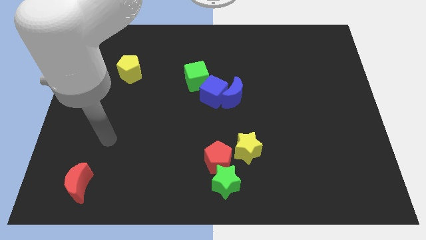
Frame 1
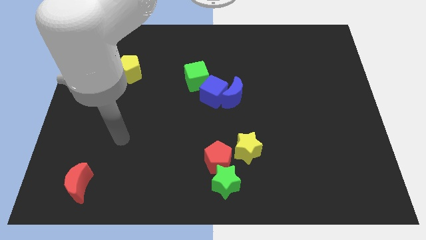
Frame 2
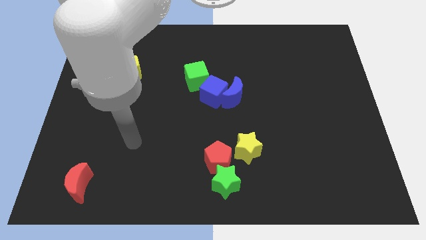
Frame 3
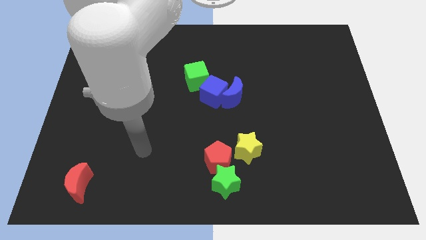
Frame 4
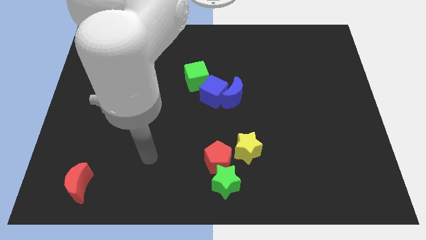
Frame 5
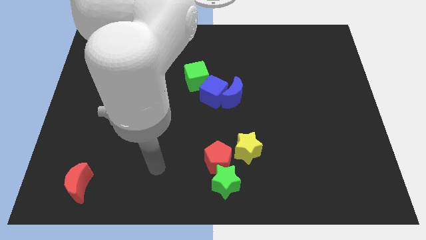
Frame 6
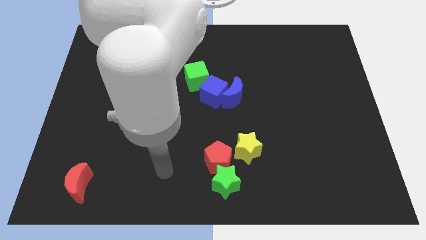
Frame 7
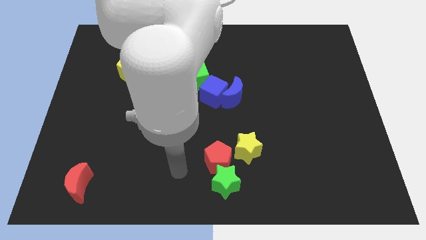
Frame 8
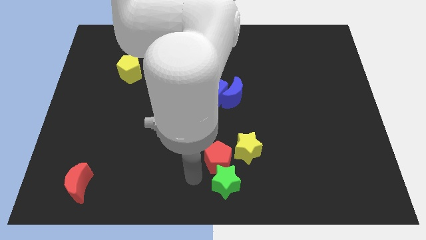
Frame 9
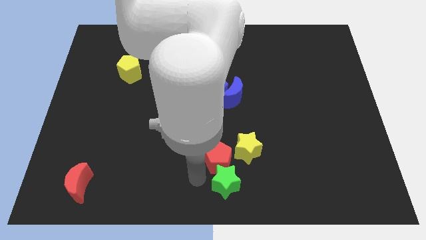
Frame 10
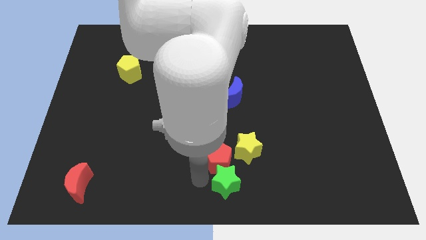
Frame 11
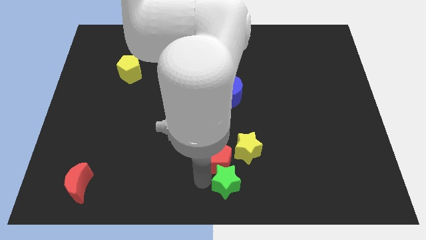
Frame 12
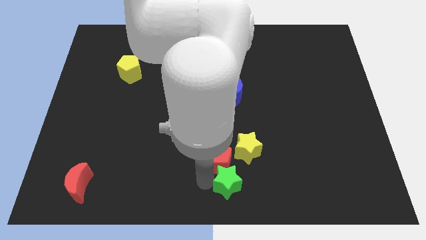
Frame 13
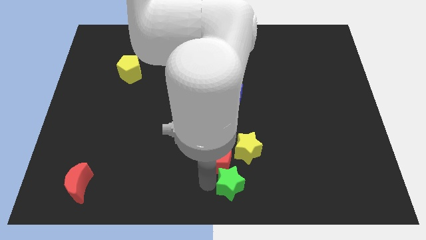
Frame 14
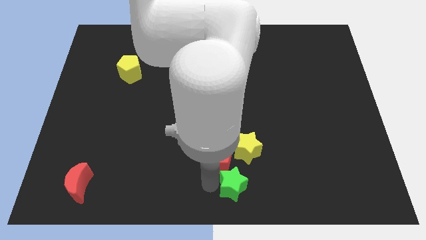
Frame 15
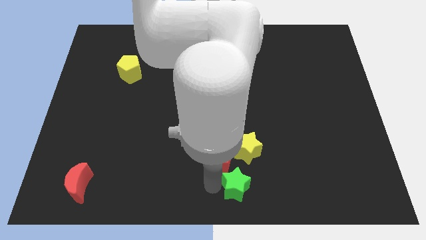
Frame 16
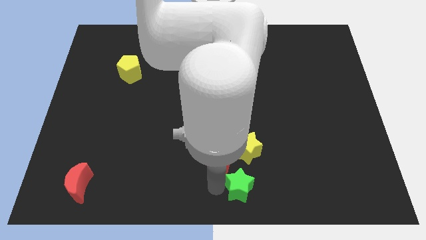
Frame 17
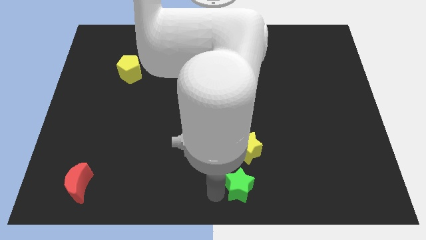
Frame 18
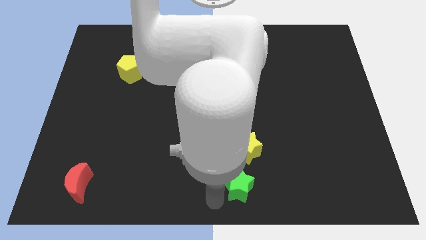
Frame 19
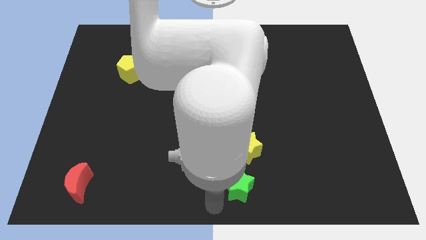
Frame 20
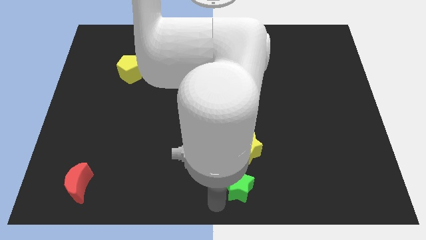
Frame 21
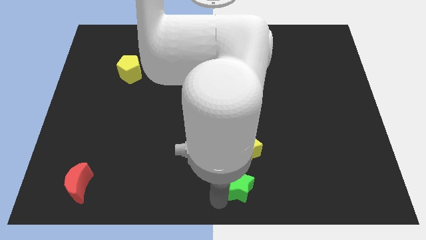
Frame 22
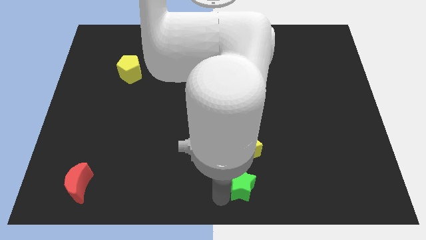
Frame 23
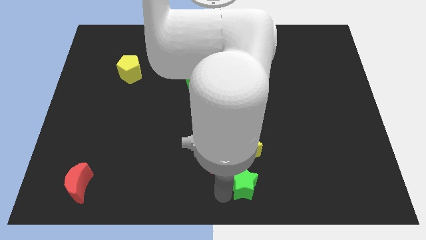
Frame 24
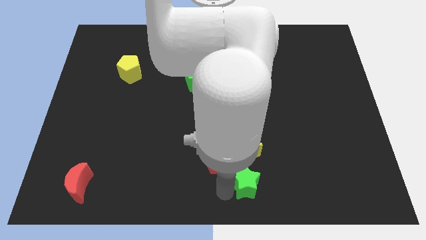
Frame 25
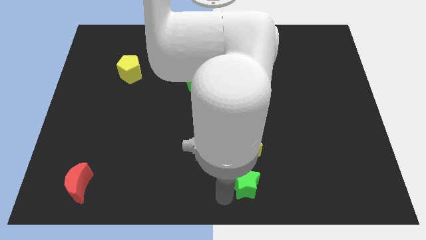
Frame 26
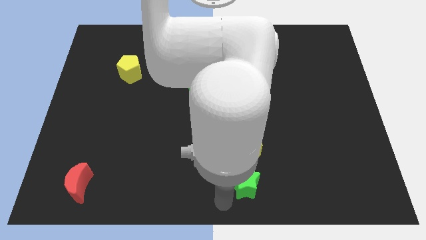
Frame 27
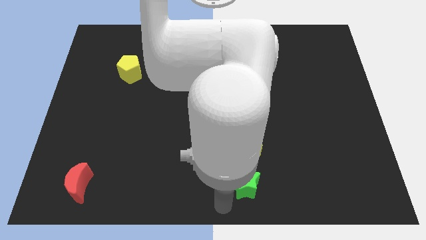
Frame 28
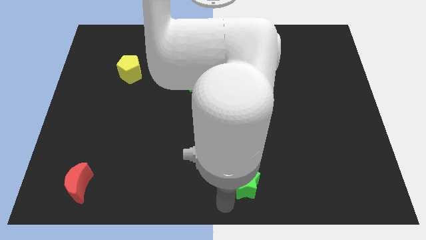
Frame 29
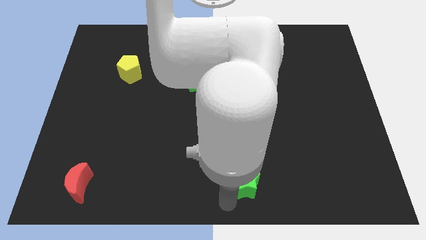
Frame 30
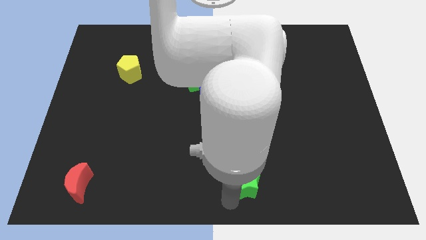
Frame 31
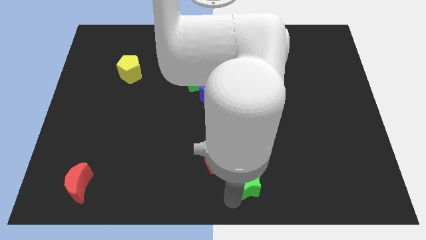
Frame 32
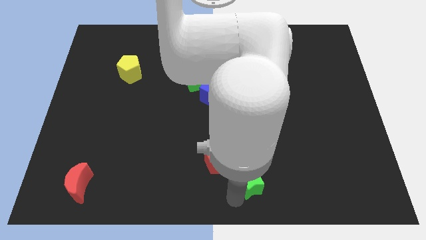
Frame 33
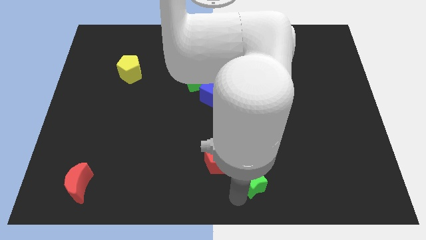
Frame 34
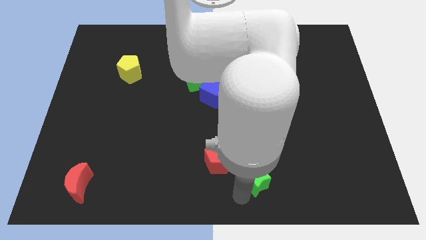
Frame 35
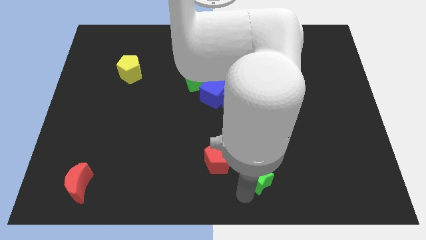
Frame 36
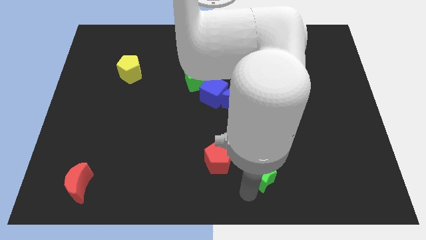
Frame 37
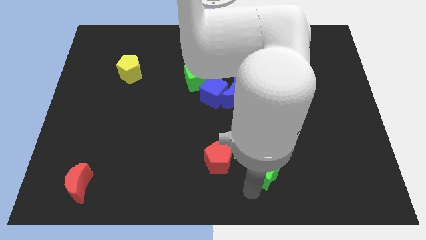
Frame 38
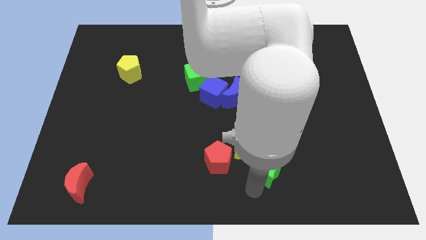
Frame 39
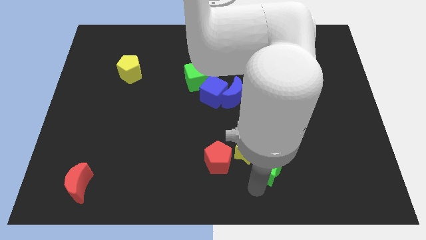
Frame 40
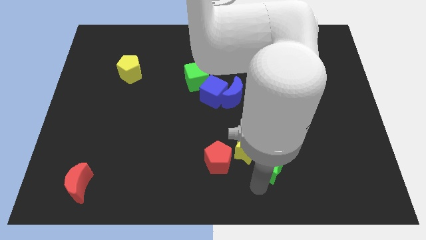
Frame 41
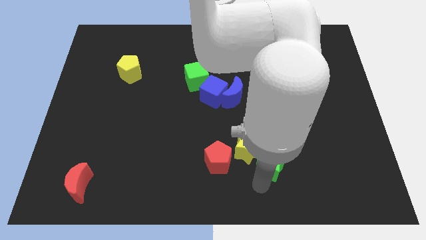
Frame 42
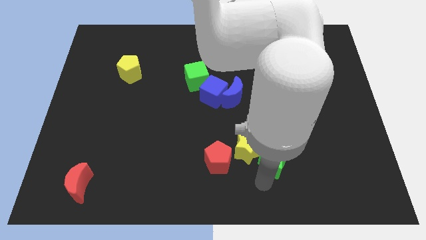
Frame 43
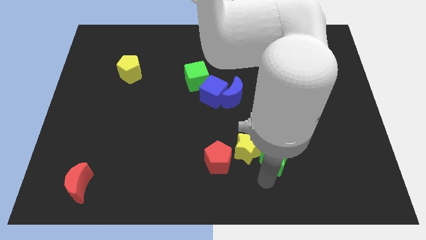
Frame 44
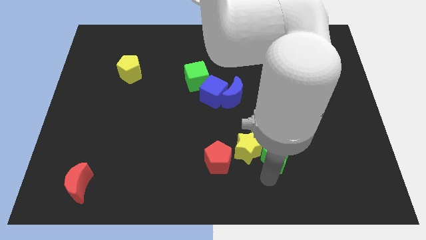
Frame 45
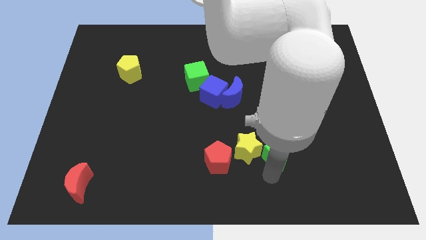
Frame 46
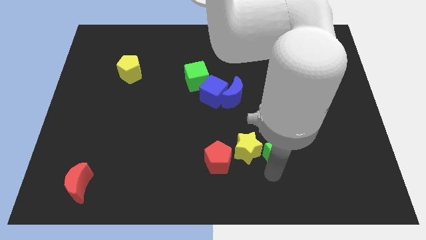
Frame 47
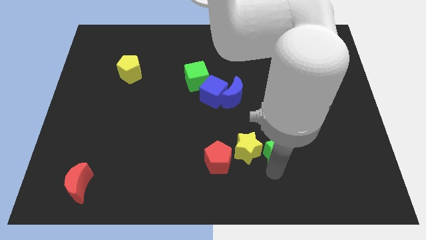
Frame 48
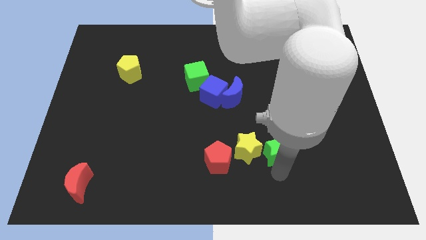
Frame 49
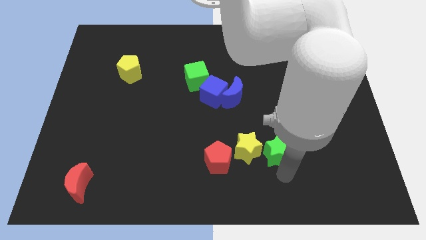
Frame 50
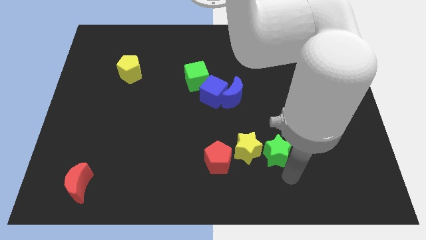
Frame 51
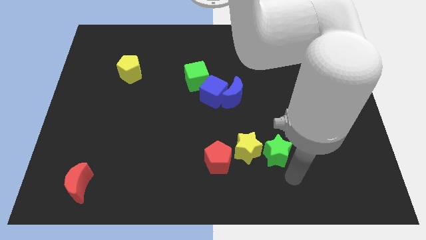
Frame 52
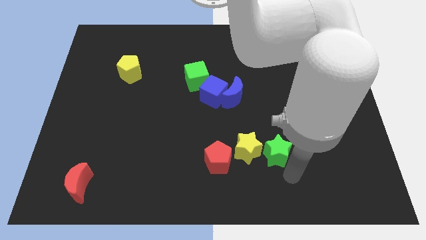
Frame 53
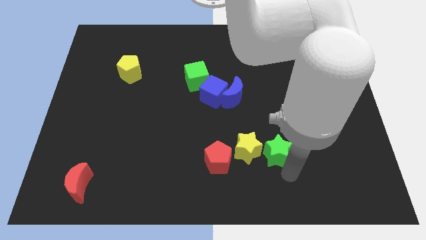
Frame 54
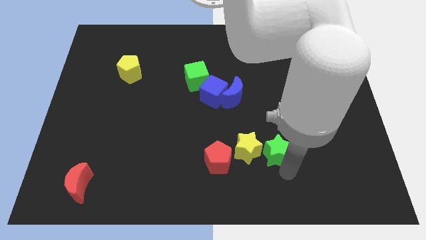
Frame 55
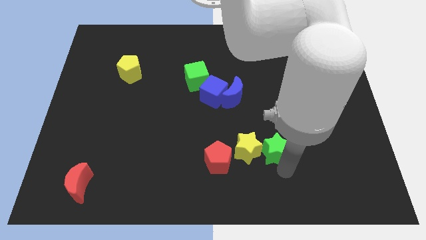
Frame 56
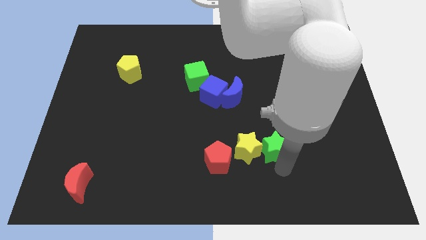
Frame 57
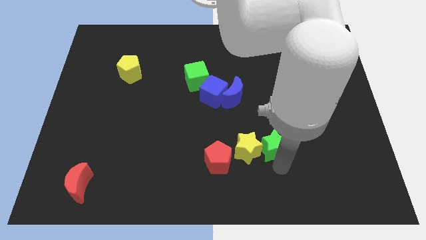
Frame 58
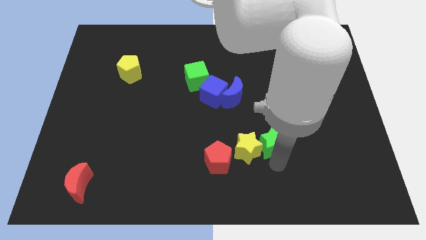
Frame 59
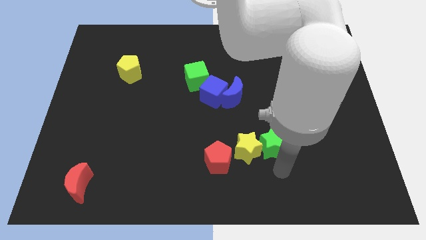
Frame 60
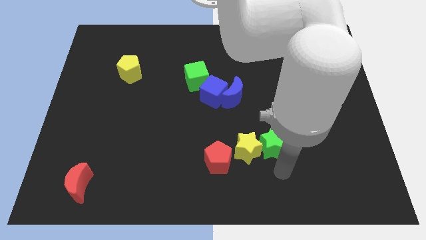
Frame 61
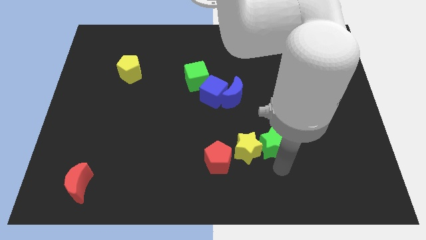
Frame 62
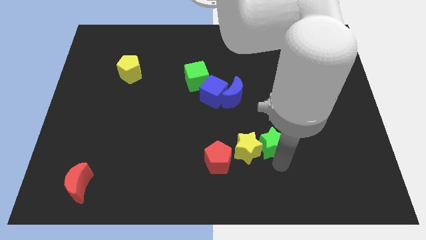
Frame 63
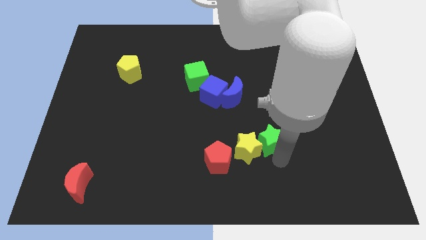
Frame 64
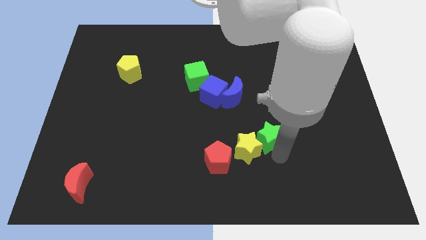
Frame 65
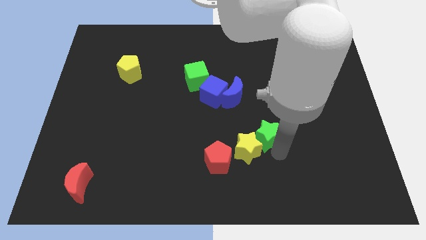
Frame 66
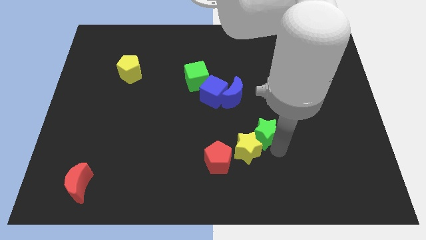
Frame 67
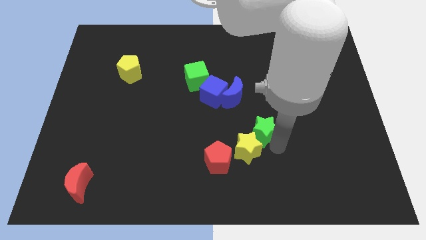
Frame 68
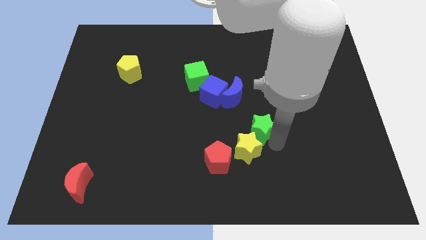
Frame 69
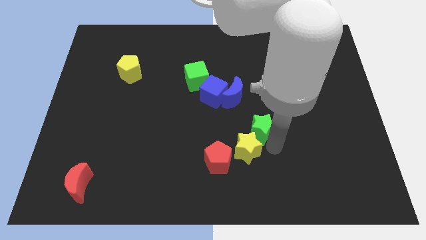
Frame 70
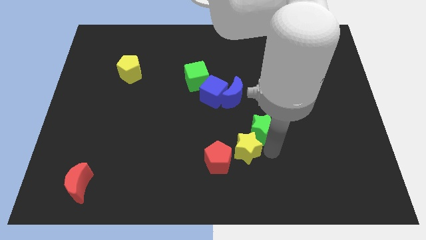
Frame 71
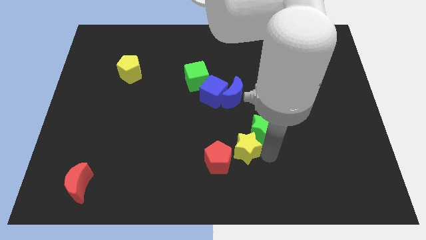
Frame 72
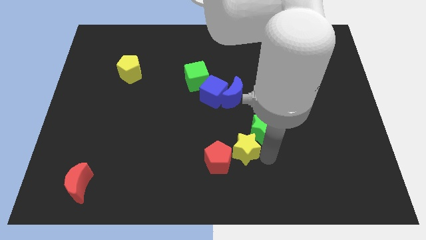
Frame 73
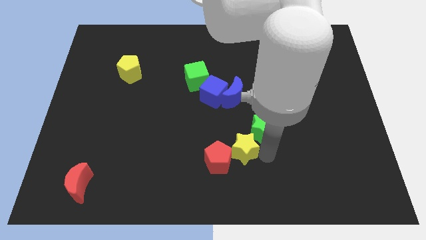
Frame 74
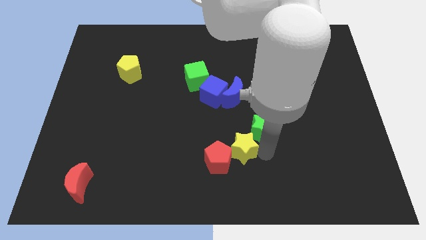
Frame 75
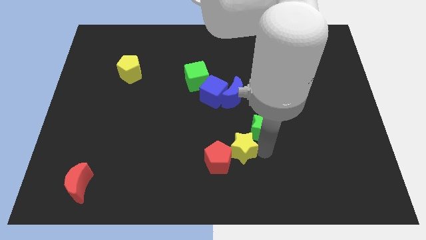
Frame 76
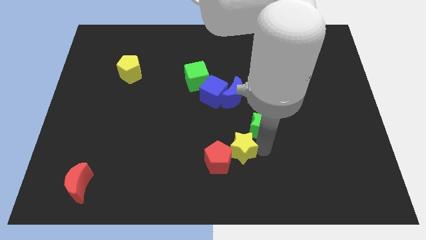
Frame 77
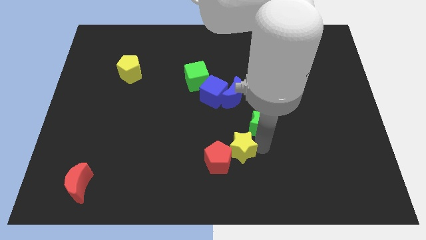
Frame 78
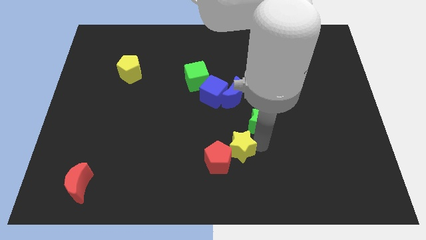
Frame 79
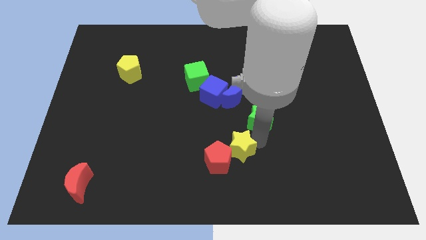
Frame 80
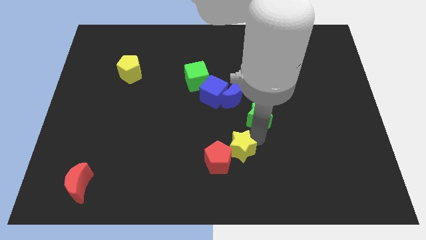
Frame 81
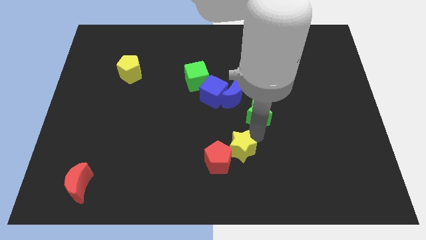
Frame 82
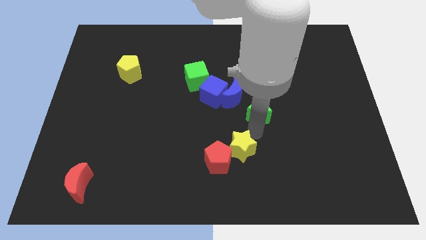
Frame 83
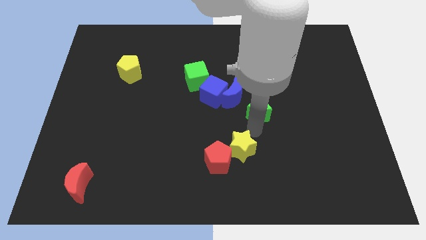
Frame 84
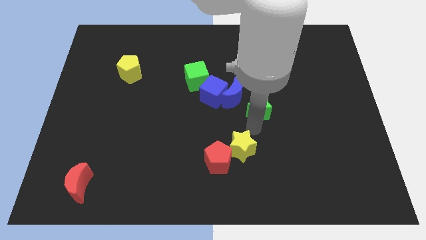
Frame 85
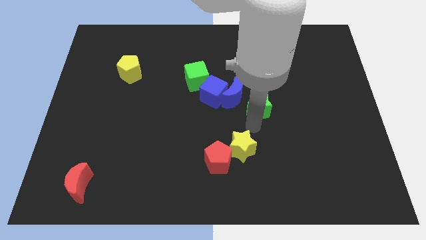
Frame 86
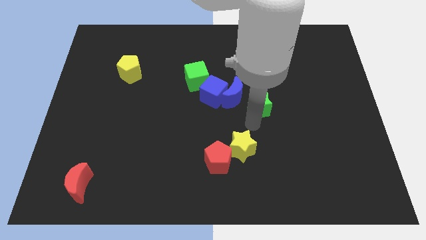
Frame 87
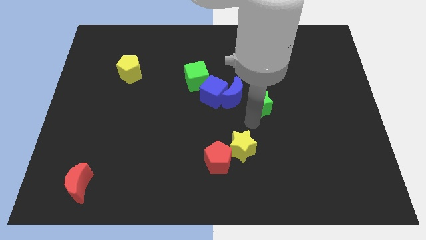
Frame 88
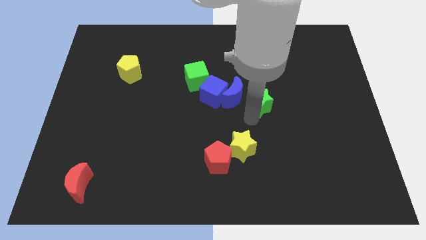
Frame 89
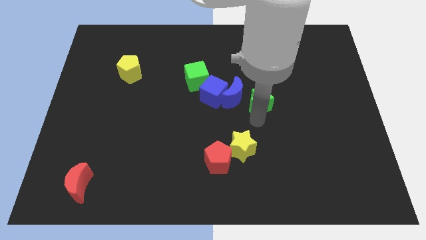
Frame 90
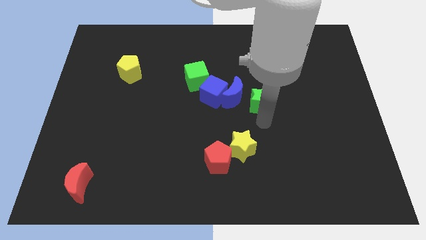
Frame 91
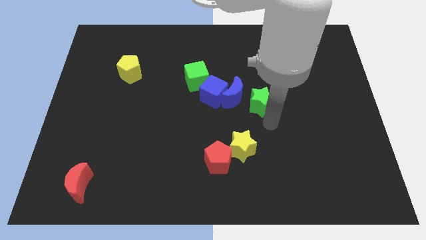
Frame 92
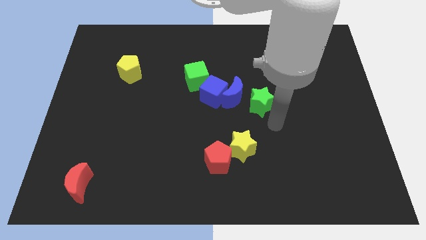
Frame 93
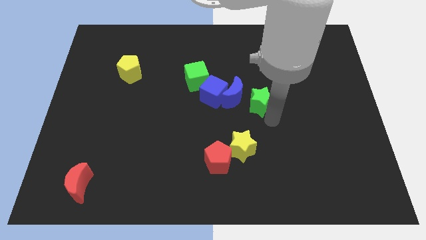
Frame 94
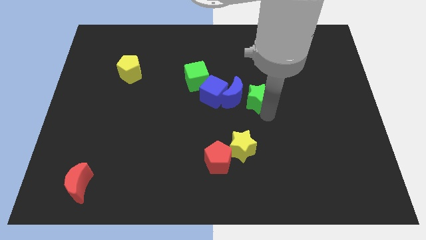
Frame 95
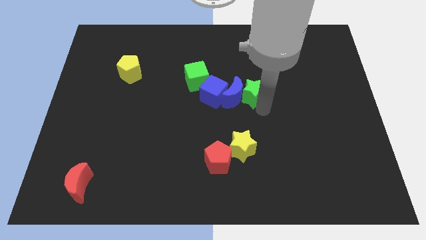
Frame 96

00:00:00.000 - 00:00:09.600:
push the green star upwards
